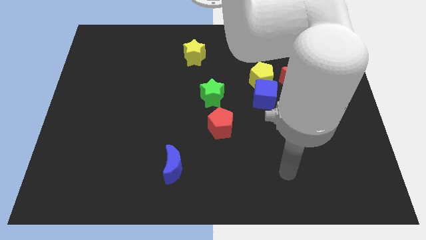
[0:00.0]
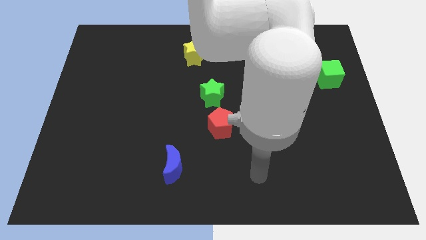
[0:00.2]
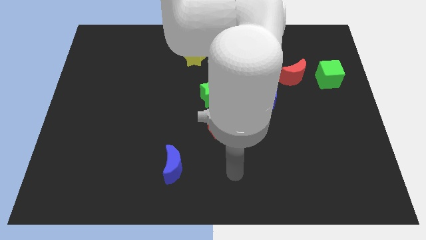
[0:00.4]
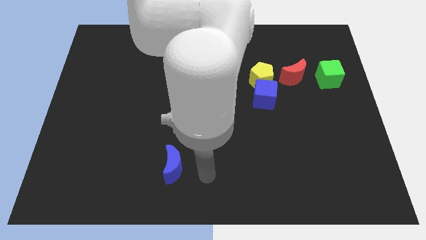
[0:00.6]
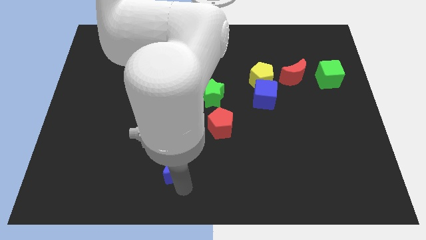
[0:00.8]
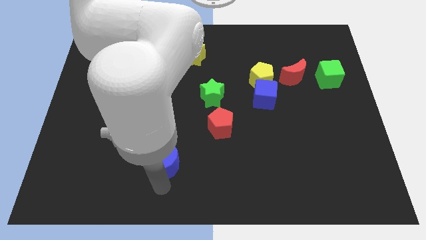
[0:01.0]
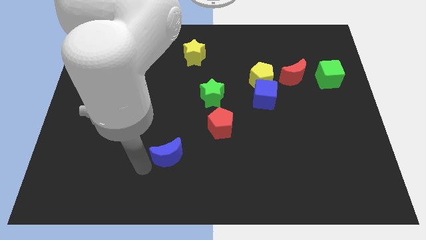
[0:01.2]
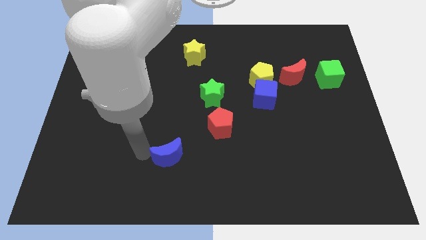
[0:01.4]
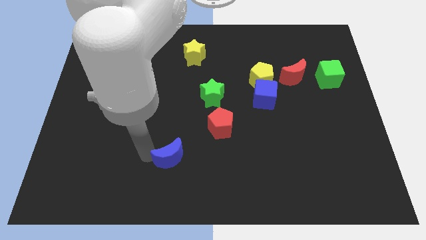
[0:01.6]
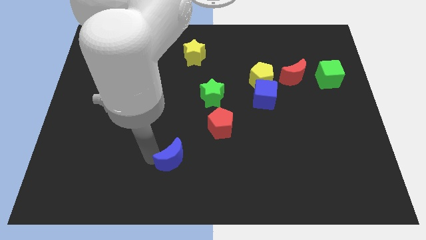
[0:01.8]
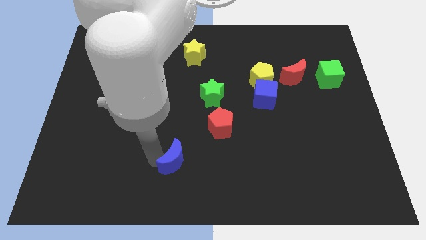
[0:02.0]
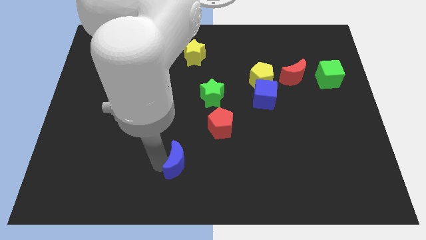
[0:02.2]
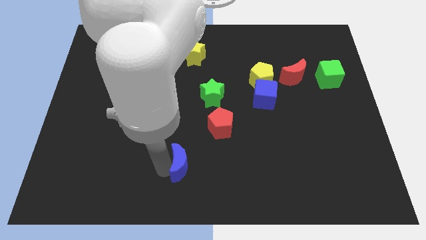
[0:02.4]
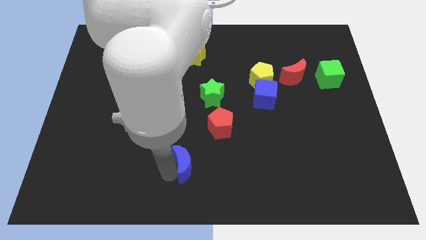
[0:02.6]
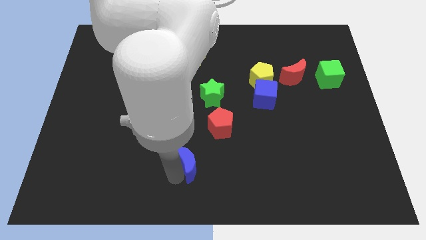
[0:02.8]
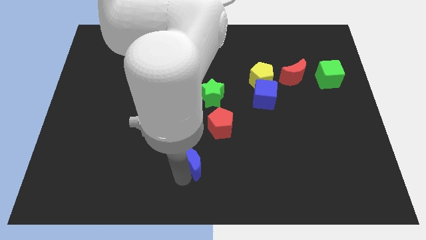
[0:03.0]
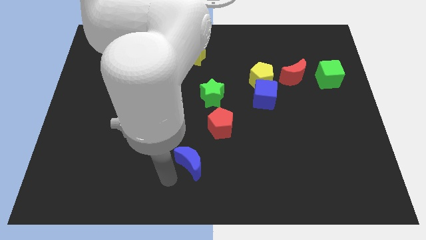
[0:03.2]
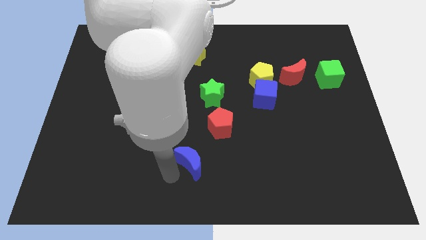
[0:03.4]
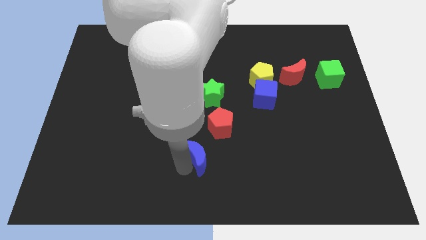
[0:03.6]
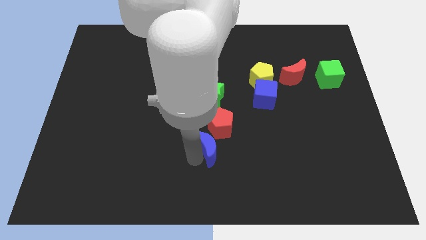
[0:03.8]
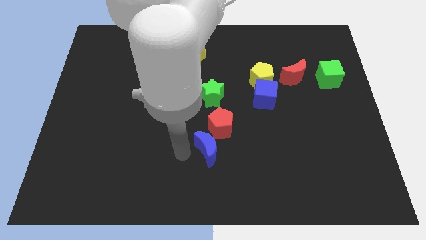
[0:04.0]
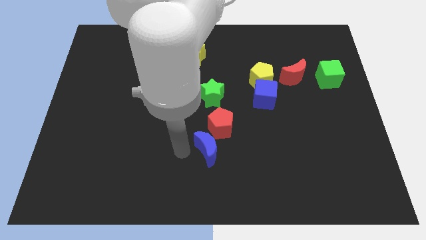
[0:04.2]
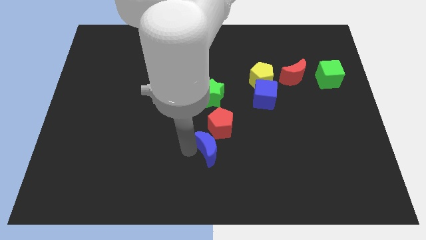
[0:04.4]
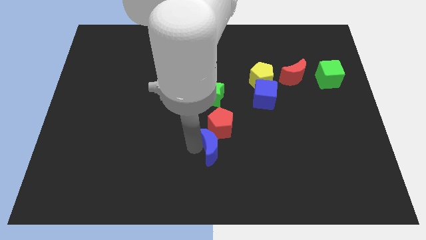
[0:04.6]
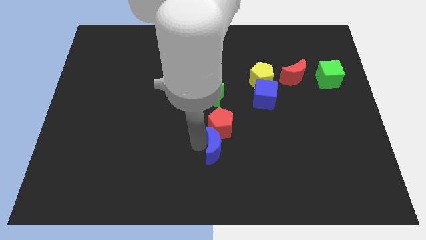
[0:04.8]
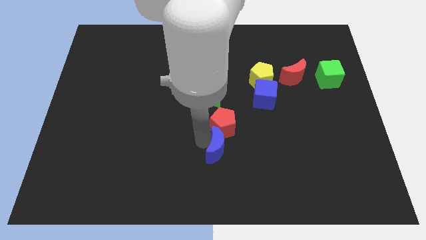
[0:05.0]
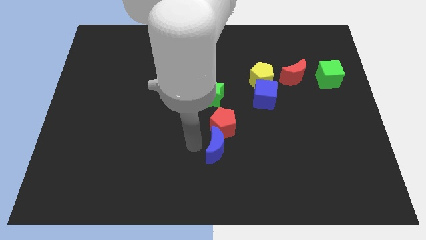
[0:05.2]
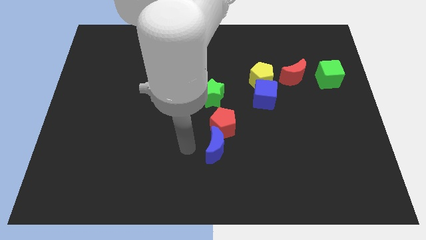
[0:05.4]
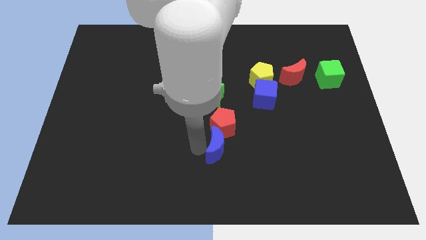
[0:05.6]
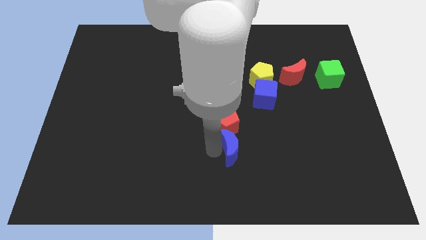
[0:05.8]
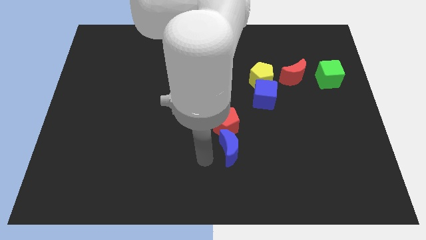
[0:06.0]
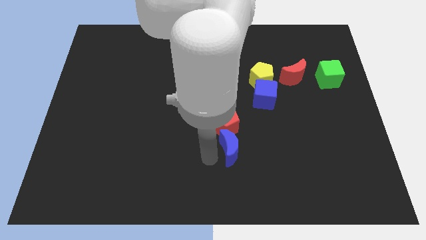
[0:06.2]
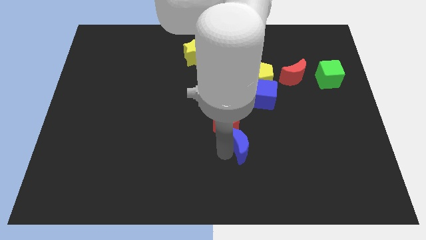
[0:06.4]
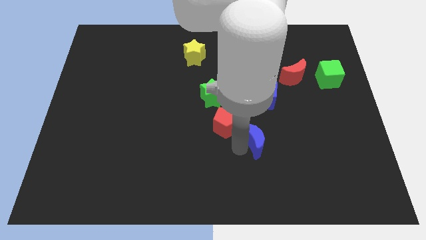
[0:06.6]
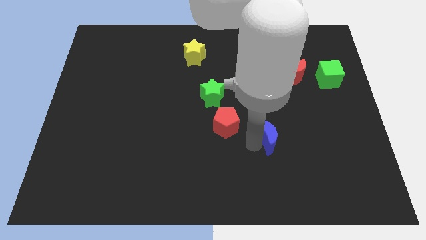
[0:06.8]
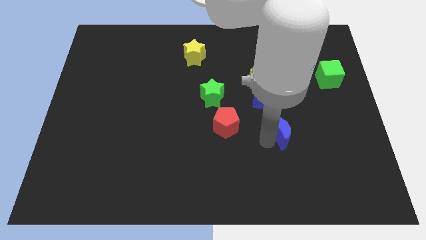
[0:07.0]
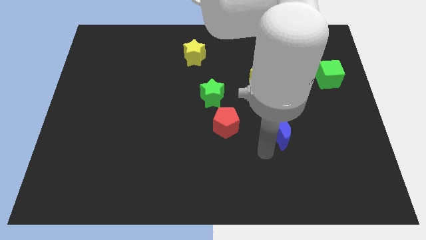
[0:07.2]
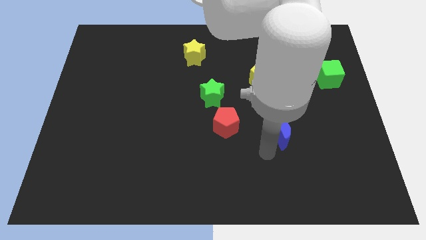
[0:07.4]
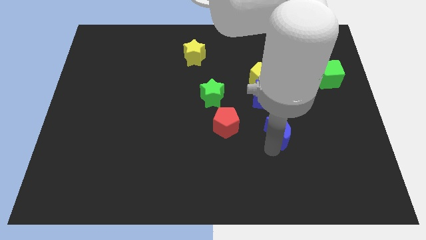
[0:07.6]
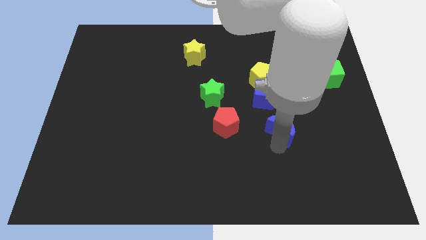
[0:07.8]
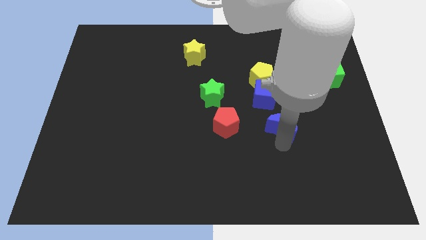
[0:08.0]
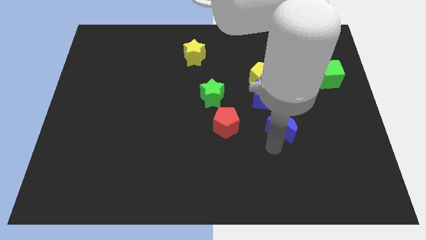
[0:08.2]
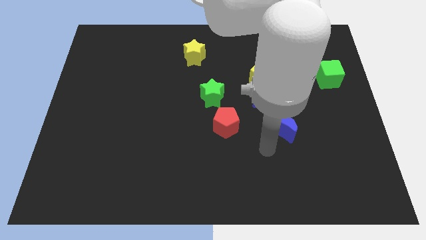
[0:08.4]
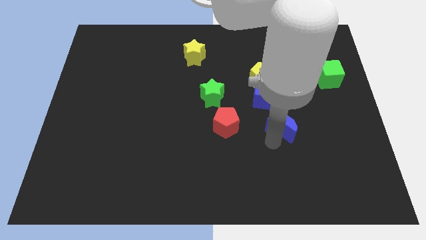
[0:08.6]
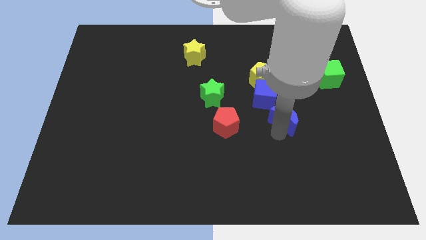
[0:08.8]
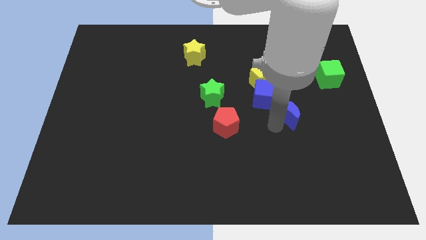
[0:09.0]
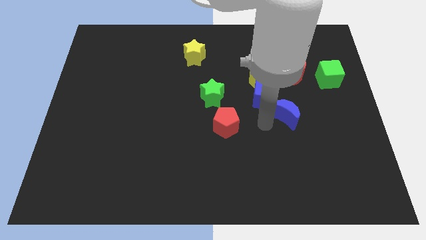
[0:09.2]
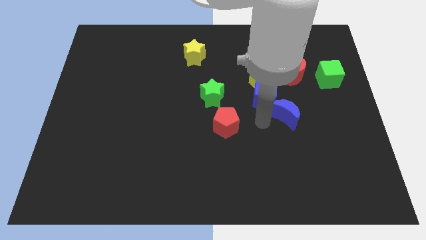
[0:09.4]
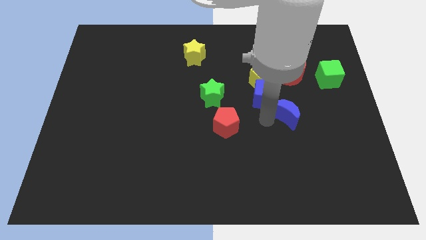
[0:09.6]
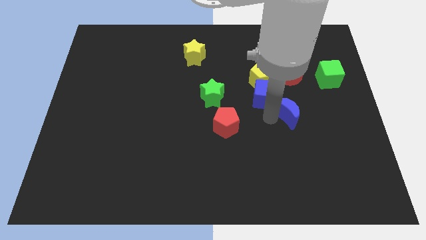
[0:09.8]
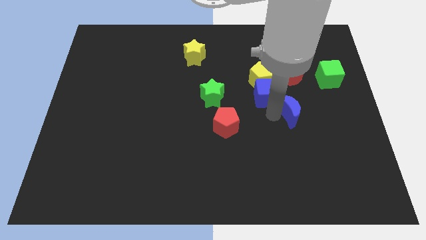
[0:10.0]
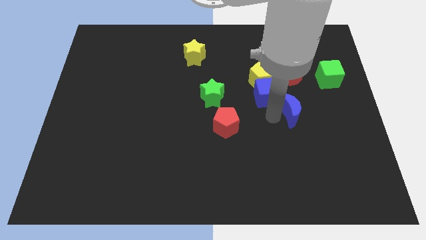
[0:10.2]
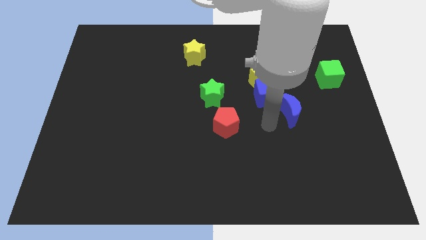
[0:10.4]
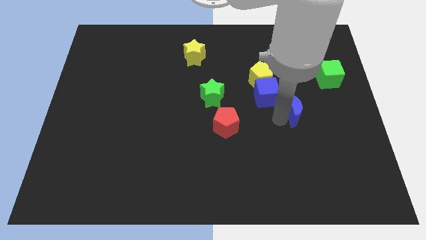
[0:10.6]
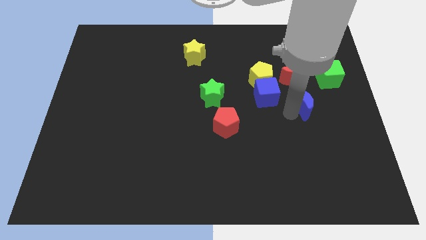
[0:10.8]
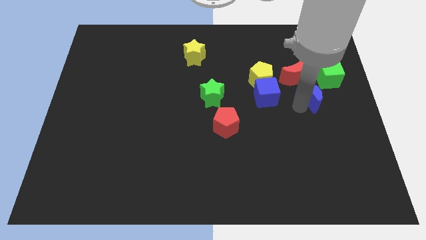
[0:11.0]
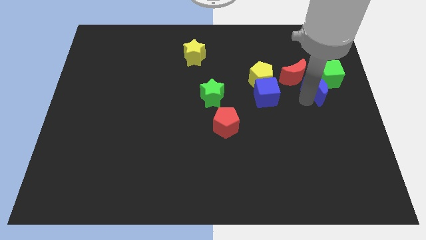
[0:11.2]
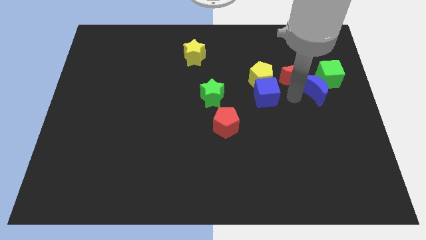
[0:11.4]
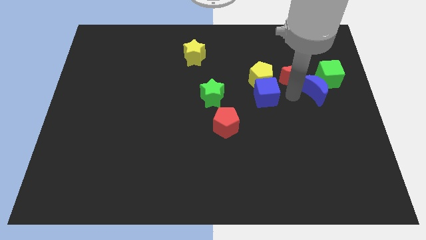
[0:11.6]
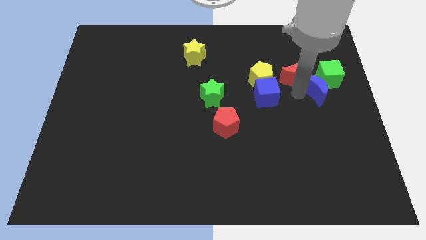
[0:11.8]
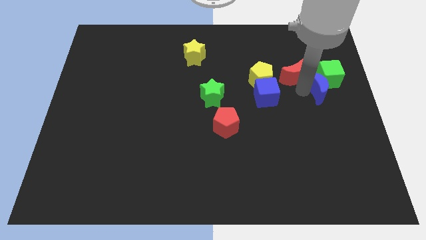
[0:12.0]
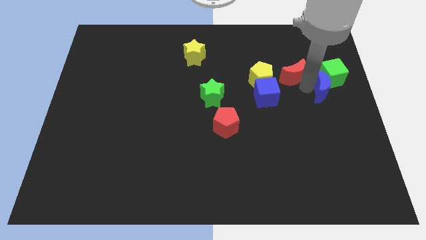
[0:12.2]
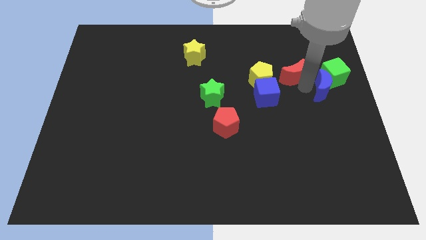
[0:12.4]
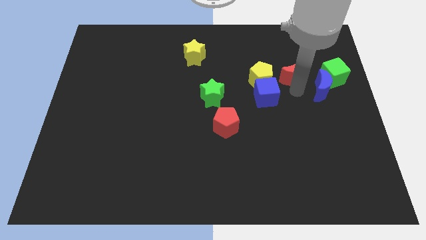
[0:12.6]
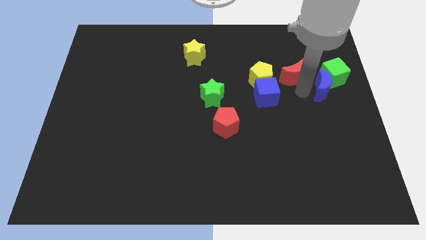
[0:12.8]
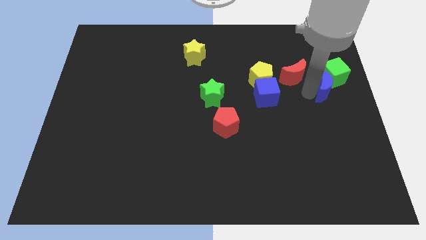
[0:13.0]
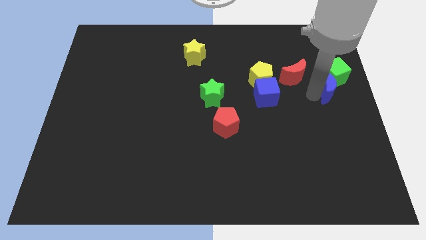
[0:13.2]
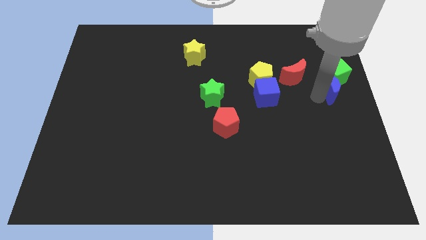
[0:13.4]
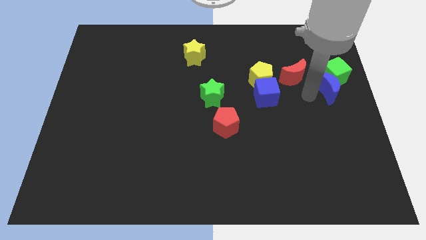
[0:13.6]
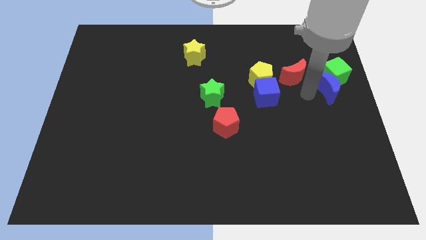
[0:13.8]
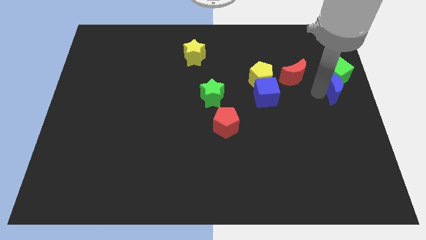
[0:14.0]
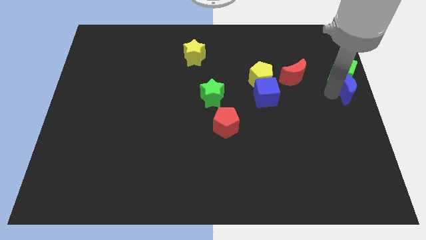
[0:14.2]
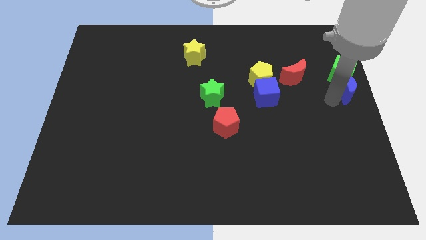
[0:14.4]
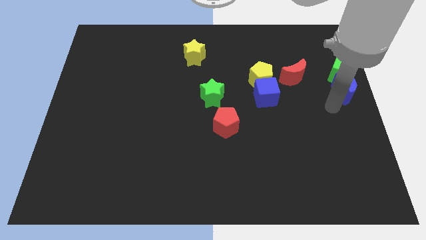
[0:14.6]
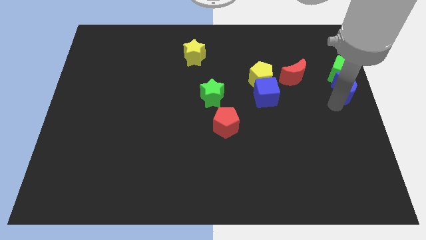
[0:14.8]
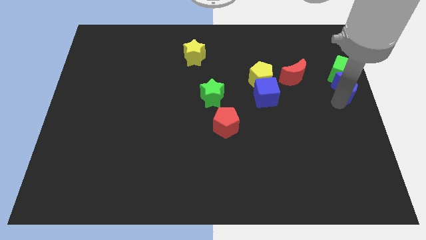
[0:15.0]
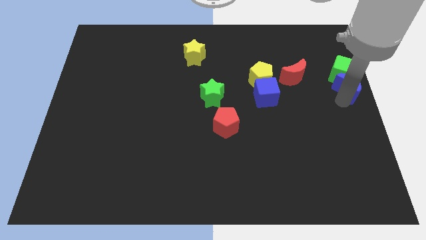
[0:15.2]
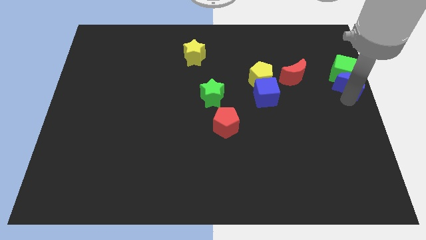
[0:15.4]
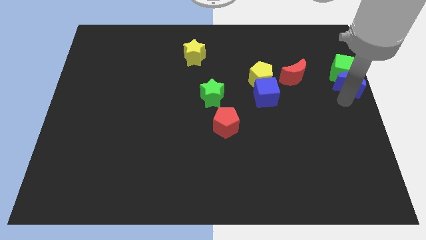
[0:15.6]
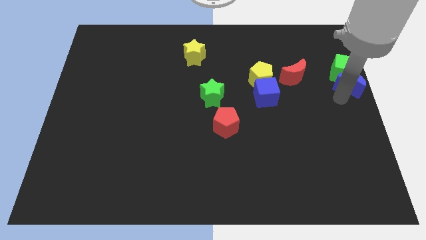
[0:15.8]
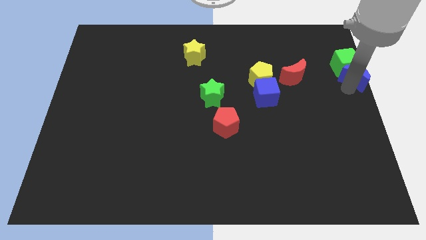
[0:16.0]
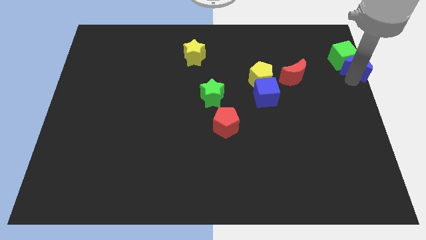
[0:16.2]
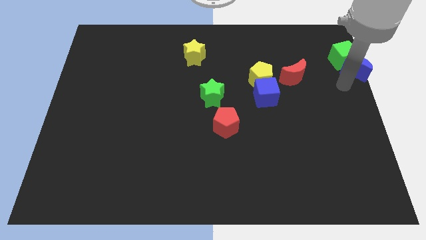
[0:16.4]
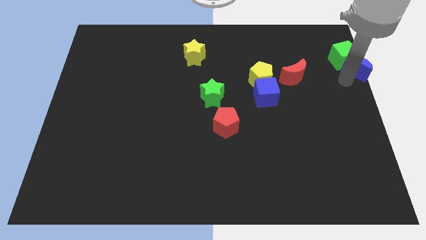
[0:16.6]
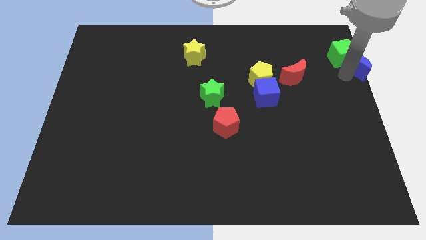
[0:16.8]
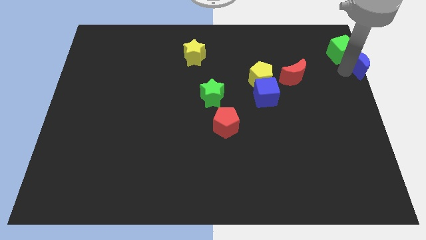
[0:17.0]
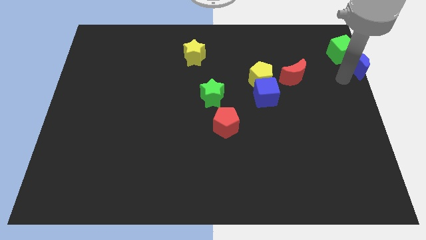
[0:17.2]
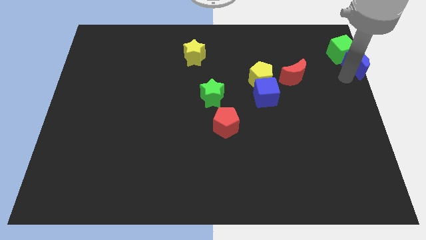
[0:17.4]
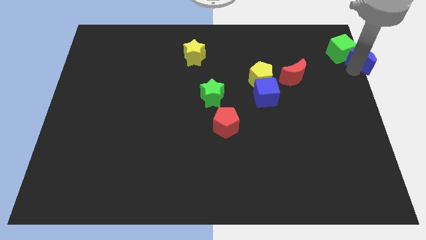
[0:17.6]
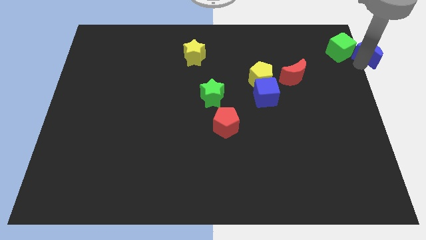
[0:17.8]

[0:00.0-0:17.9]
put the blue moon to the top right
